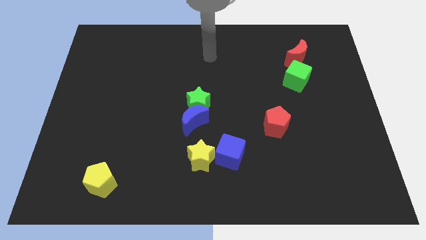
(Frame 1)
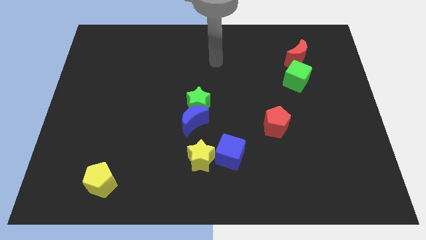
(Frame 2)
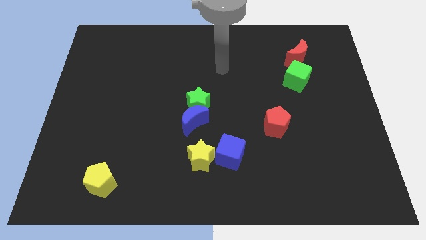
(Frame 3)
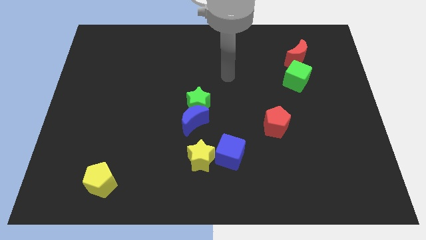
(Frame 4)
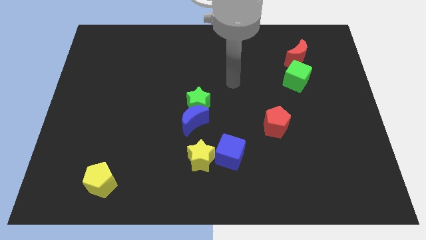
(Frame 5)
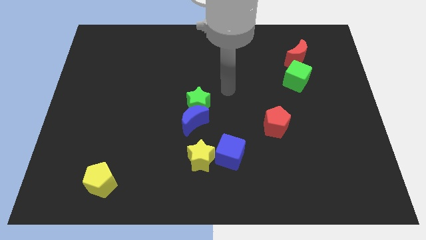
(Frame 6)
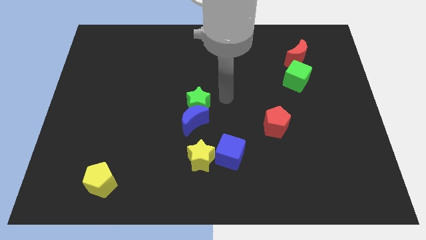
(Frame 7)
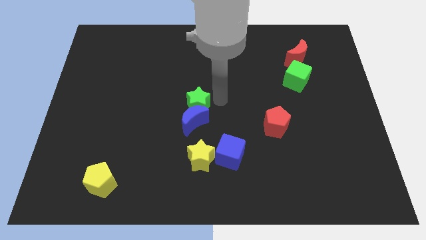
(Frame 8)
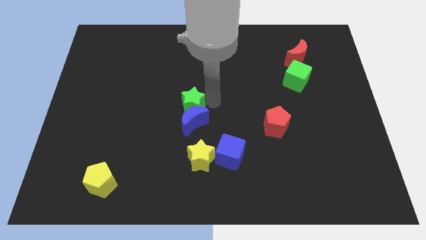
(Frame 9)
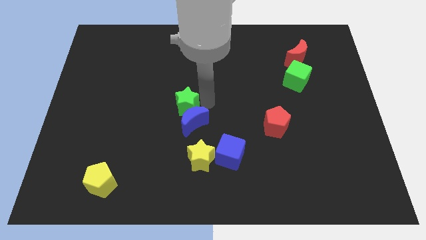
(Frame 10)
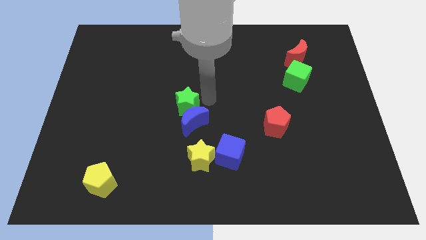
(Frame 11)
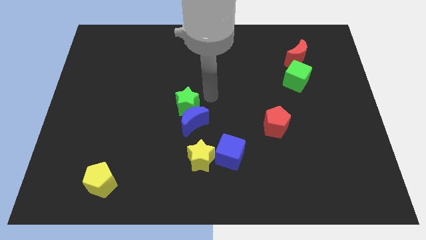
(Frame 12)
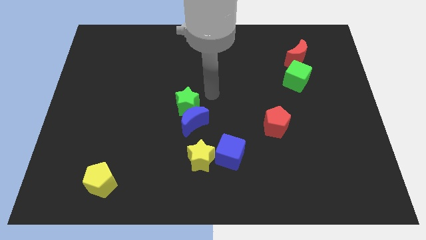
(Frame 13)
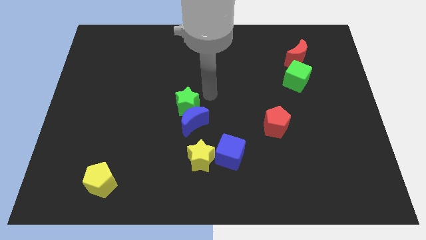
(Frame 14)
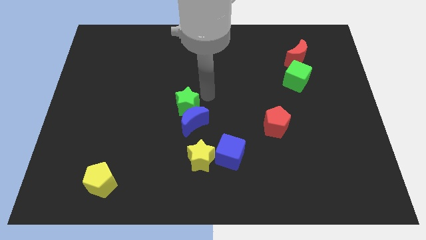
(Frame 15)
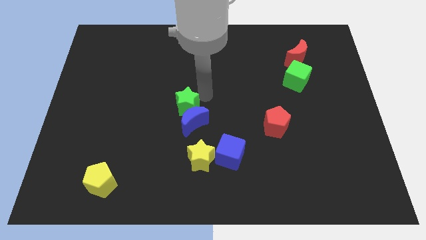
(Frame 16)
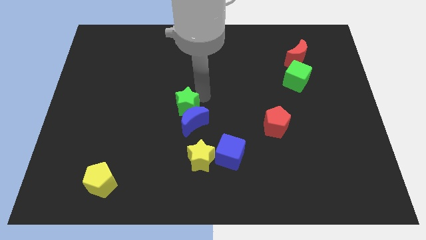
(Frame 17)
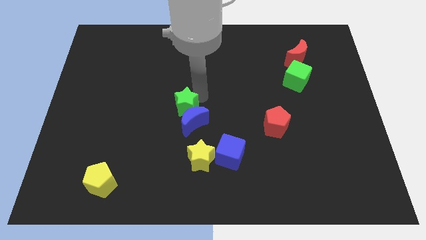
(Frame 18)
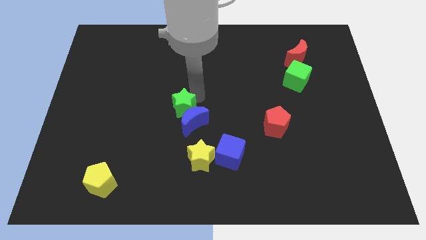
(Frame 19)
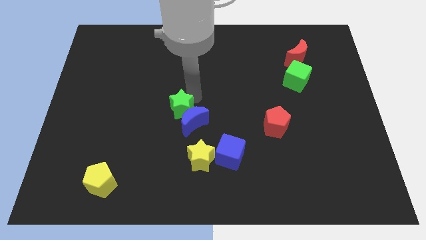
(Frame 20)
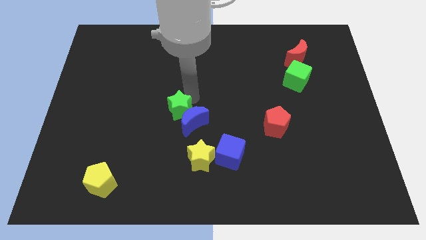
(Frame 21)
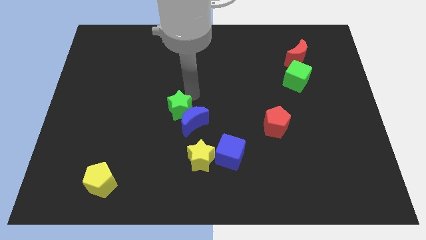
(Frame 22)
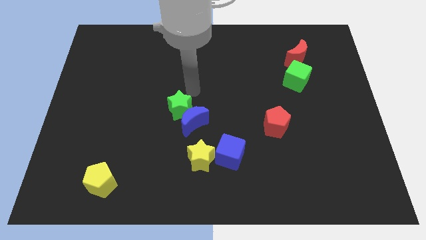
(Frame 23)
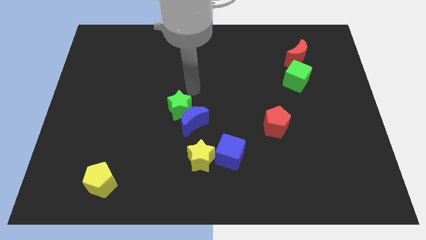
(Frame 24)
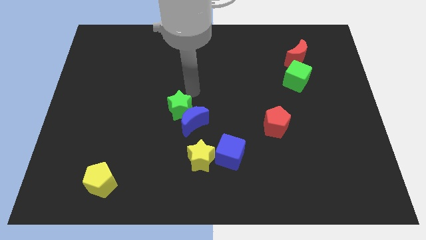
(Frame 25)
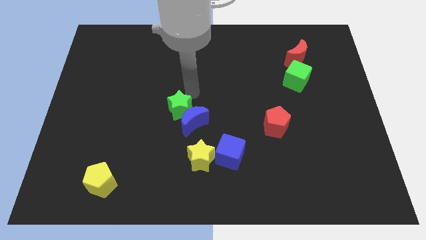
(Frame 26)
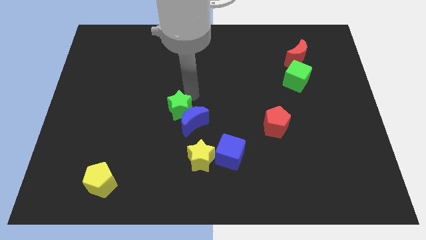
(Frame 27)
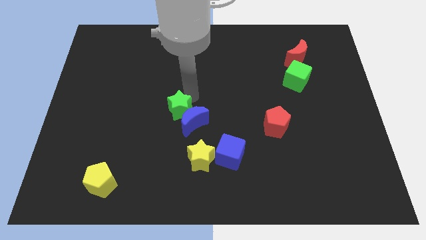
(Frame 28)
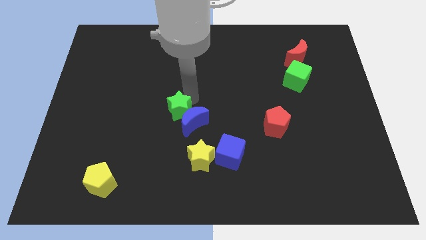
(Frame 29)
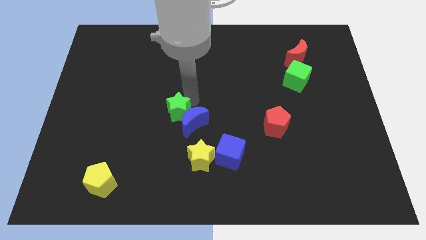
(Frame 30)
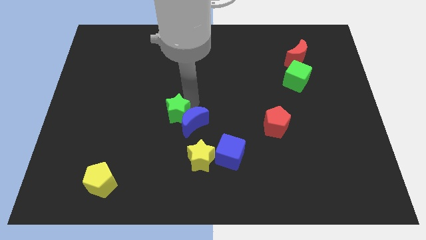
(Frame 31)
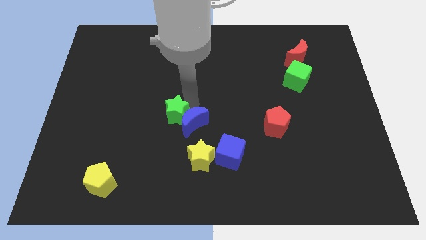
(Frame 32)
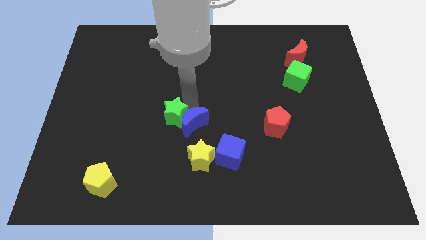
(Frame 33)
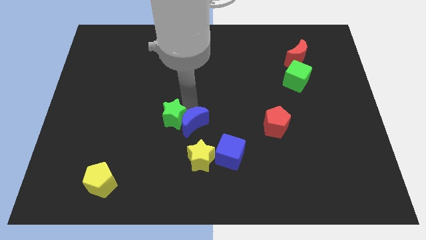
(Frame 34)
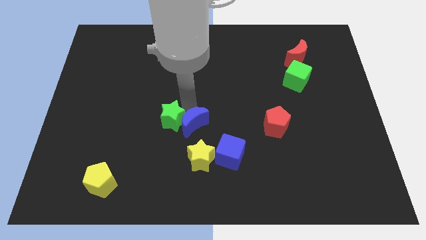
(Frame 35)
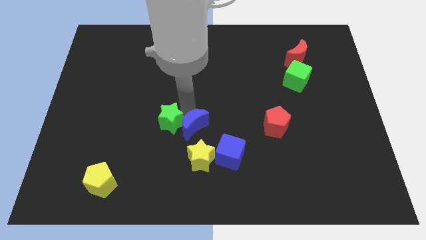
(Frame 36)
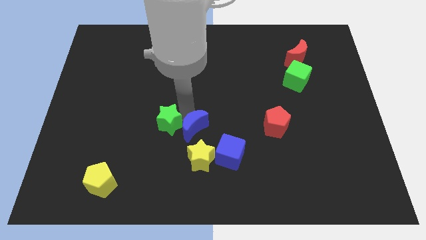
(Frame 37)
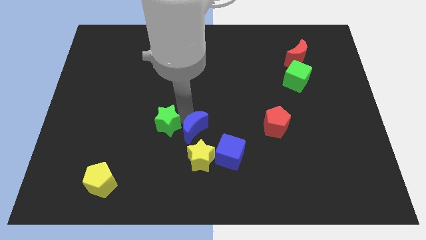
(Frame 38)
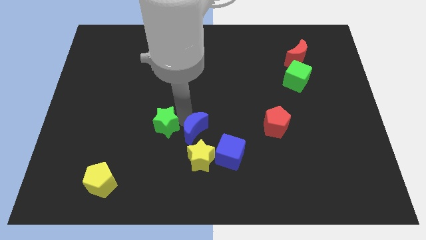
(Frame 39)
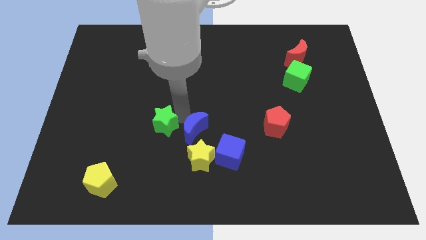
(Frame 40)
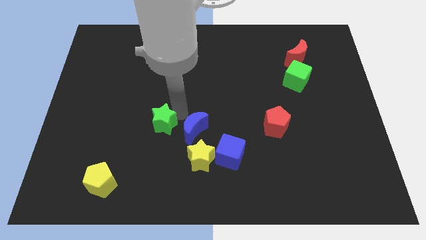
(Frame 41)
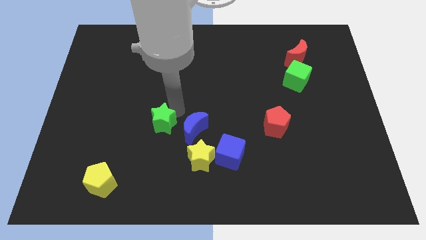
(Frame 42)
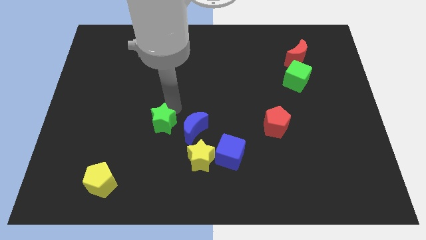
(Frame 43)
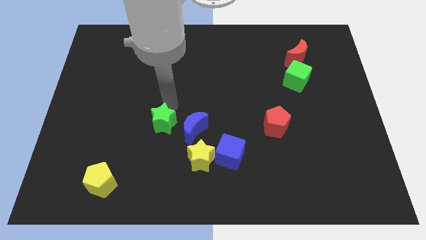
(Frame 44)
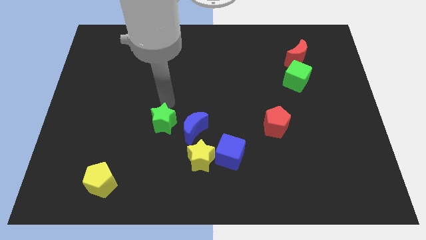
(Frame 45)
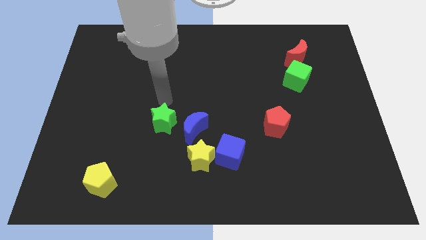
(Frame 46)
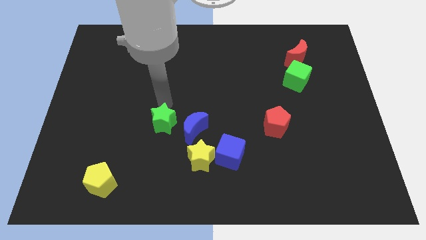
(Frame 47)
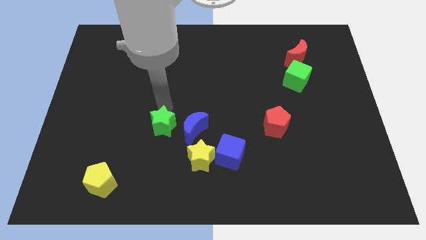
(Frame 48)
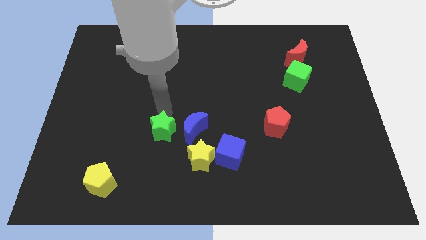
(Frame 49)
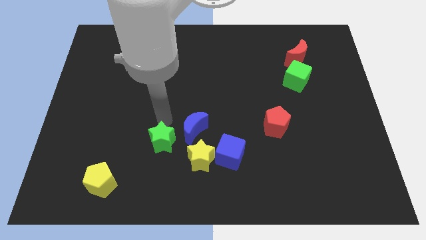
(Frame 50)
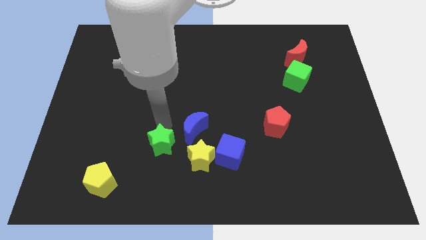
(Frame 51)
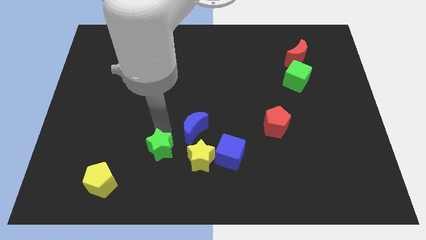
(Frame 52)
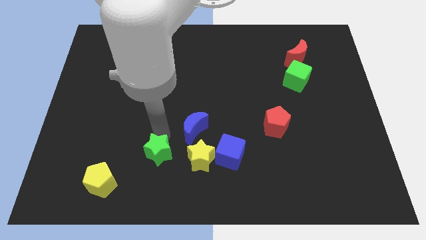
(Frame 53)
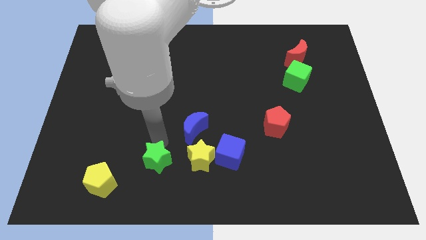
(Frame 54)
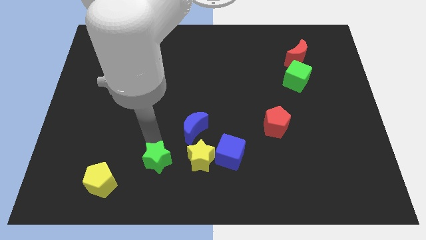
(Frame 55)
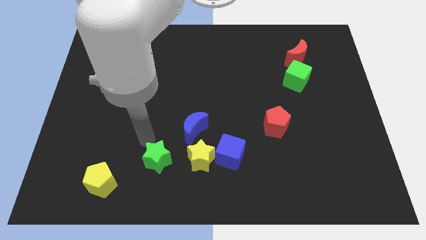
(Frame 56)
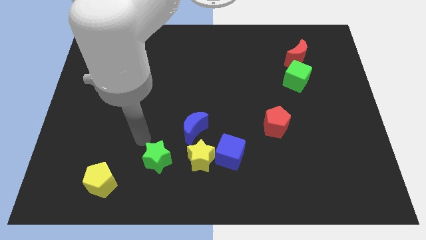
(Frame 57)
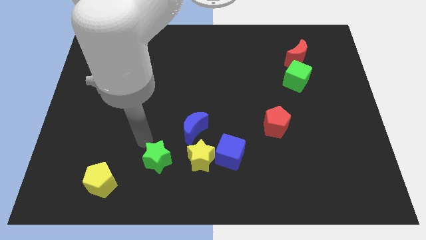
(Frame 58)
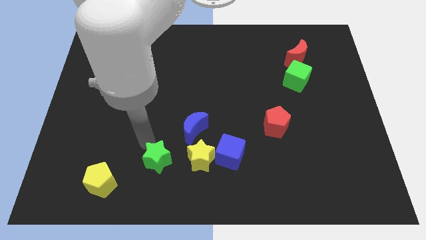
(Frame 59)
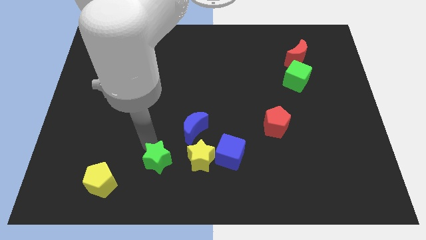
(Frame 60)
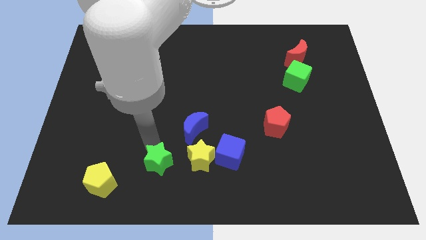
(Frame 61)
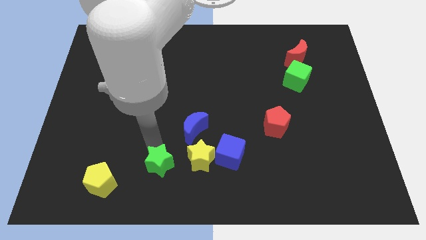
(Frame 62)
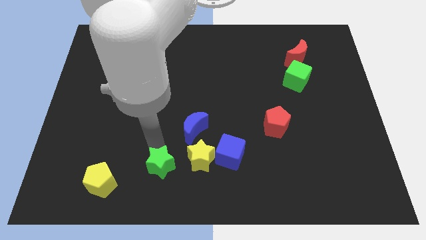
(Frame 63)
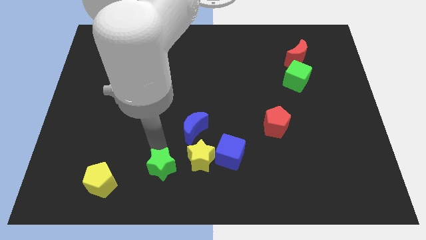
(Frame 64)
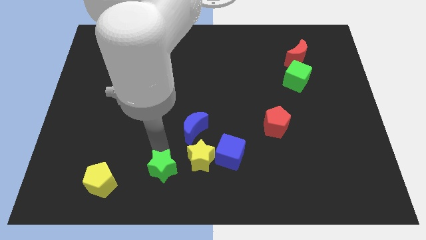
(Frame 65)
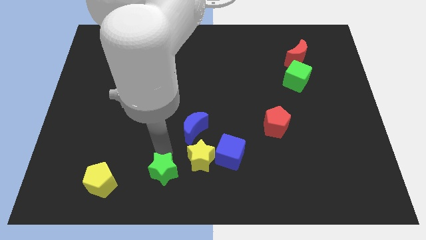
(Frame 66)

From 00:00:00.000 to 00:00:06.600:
push the green star to the bottom

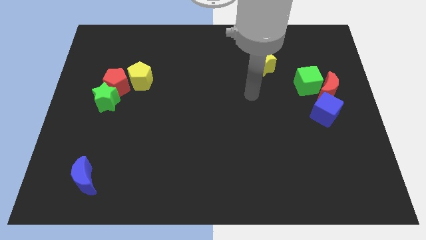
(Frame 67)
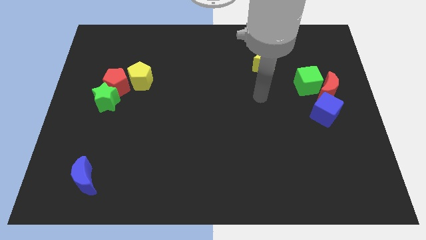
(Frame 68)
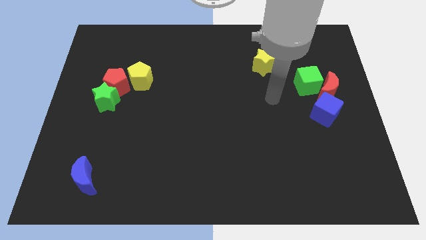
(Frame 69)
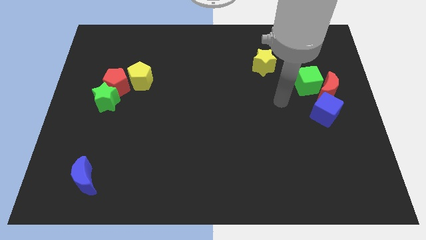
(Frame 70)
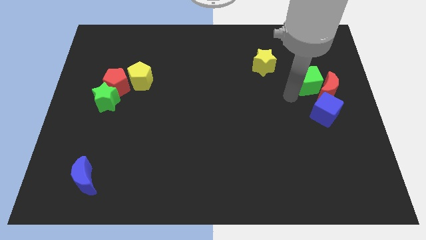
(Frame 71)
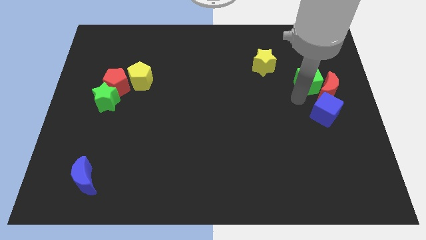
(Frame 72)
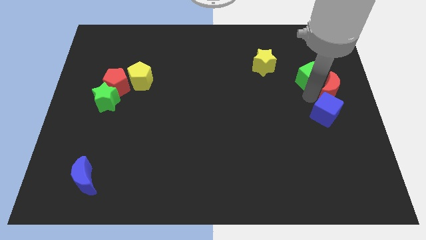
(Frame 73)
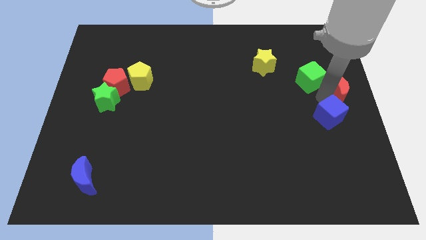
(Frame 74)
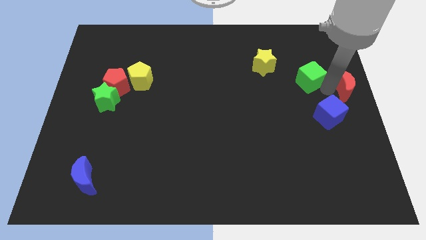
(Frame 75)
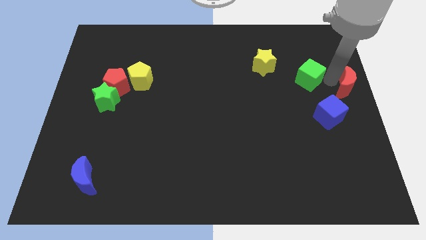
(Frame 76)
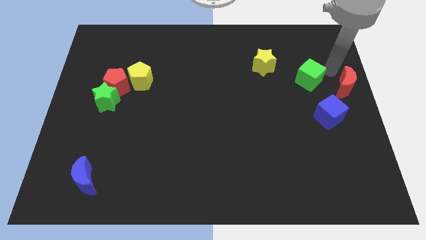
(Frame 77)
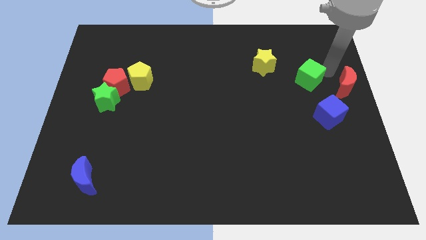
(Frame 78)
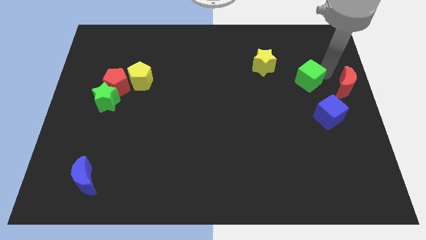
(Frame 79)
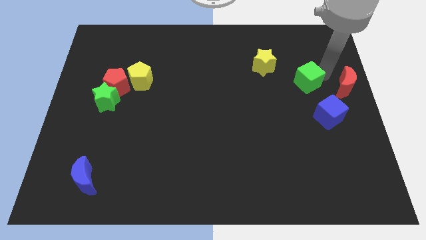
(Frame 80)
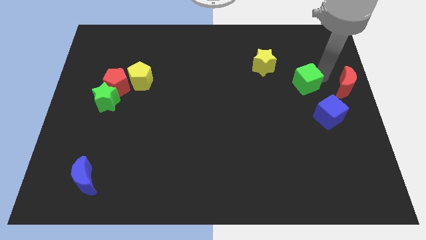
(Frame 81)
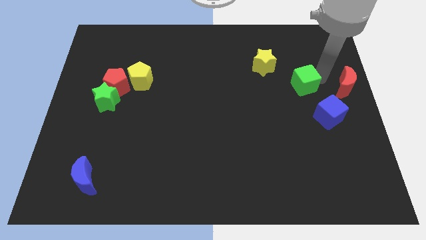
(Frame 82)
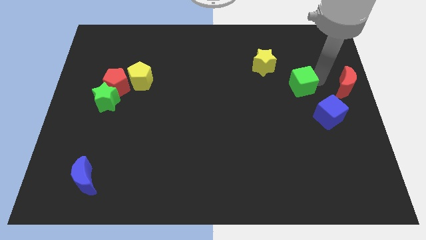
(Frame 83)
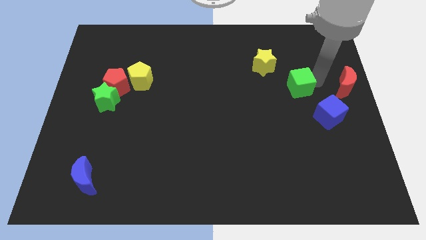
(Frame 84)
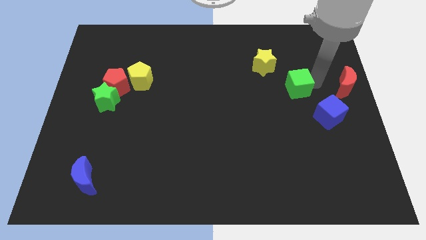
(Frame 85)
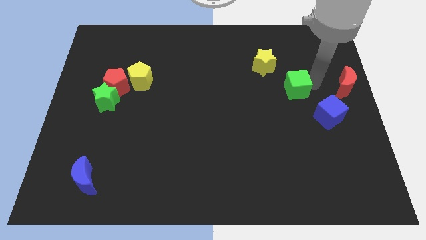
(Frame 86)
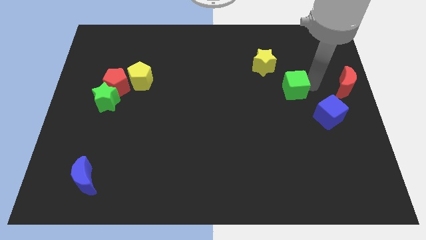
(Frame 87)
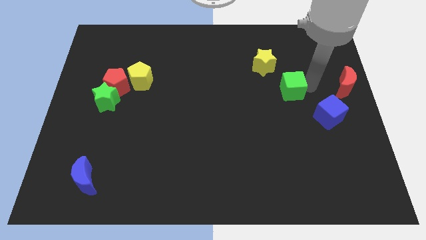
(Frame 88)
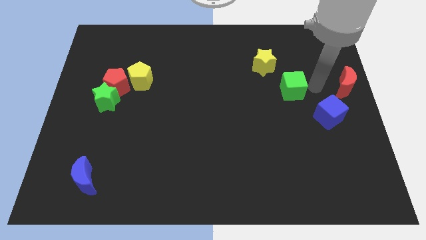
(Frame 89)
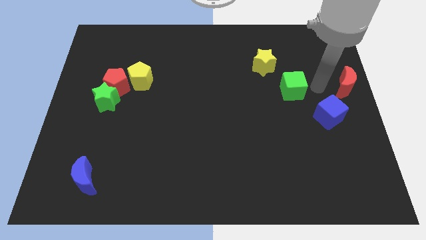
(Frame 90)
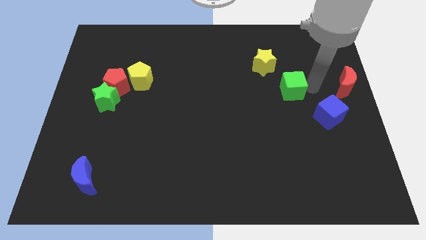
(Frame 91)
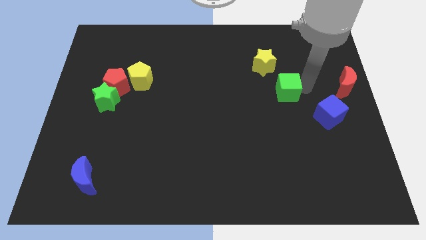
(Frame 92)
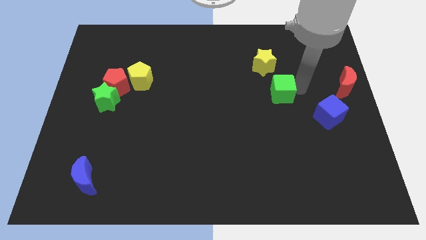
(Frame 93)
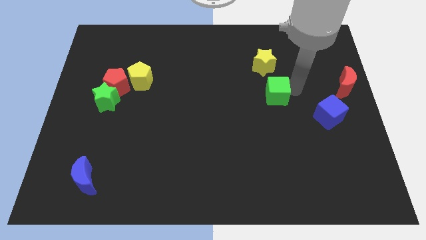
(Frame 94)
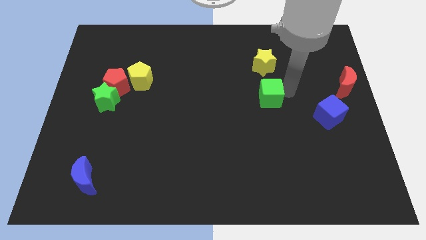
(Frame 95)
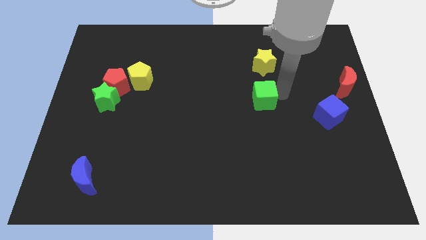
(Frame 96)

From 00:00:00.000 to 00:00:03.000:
move the green cube to the middle of the board
